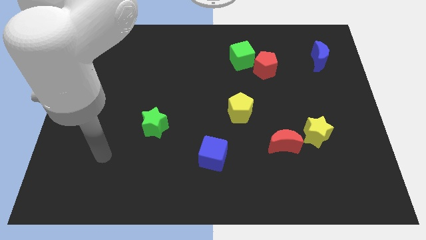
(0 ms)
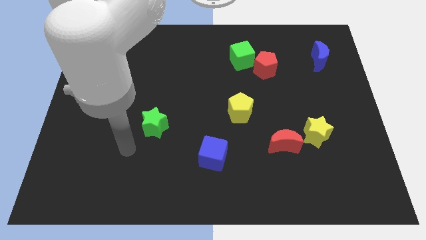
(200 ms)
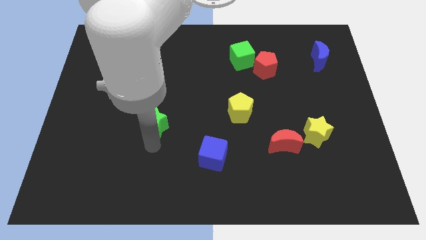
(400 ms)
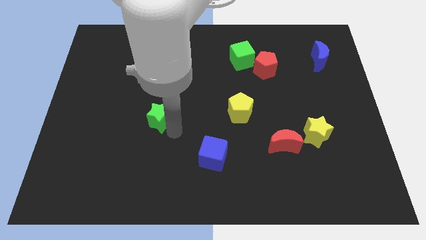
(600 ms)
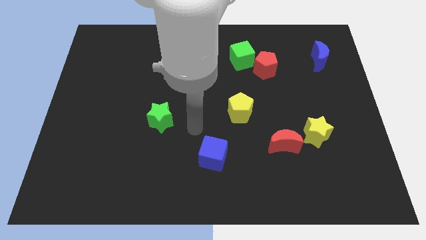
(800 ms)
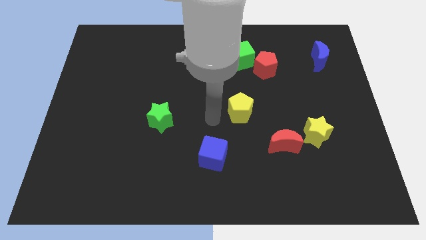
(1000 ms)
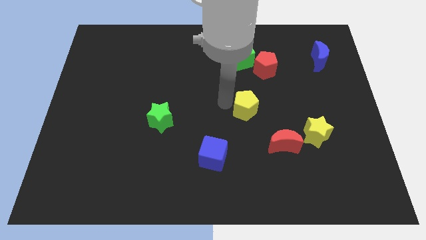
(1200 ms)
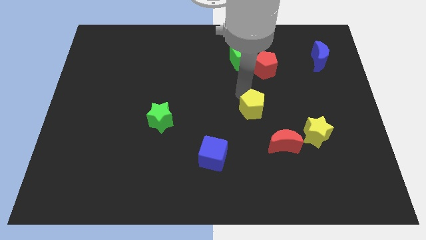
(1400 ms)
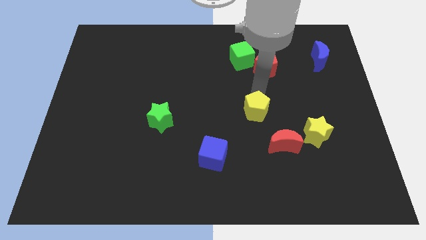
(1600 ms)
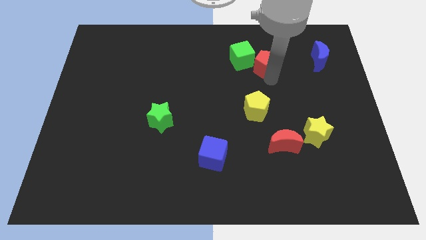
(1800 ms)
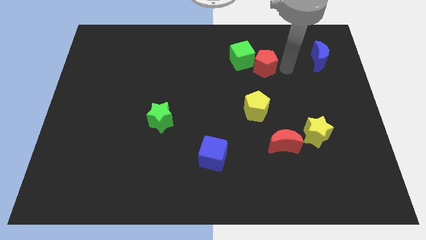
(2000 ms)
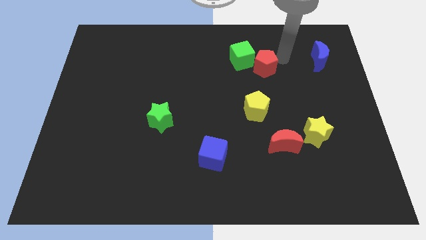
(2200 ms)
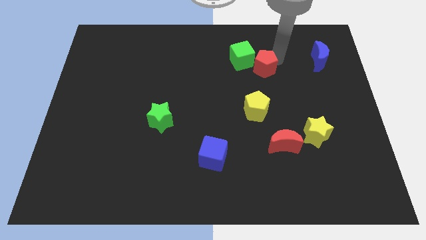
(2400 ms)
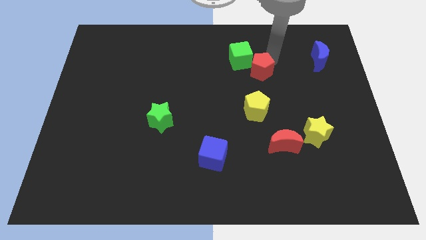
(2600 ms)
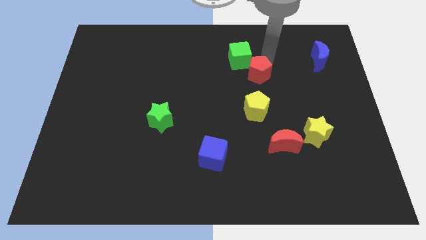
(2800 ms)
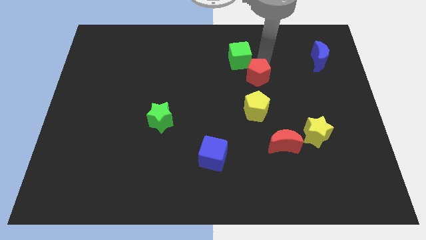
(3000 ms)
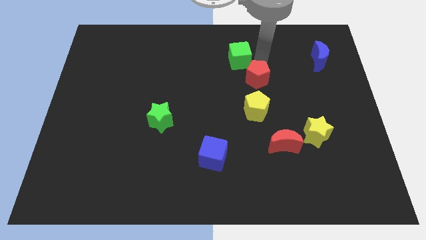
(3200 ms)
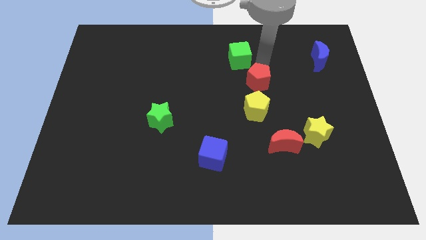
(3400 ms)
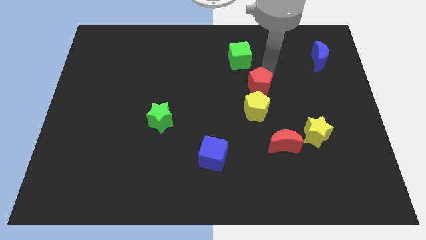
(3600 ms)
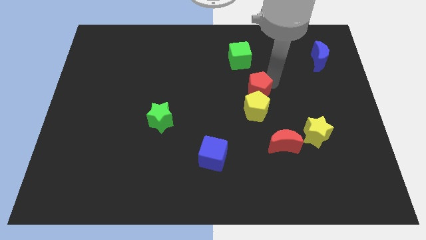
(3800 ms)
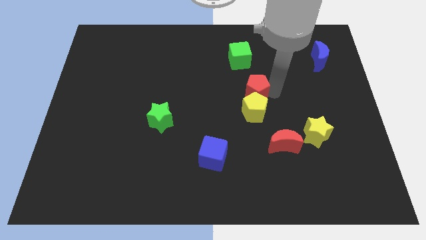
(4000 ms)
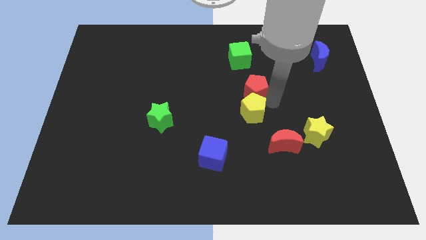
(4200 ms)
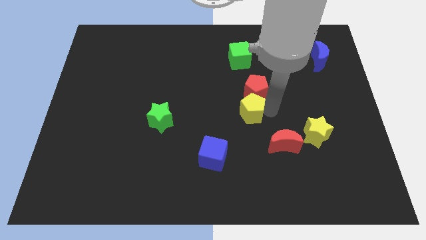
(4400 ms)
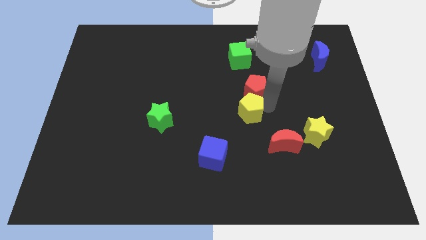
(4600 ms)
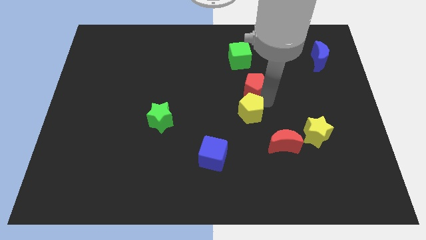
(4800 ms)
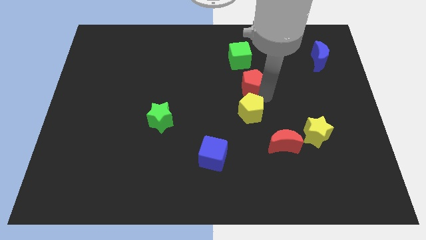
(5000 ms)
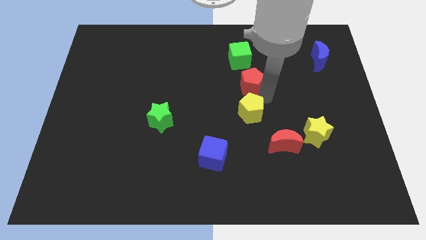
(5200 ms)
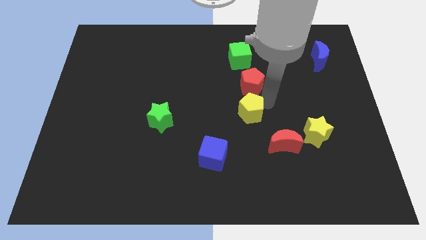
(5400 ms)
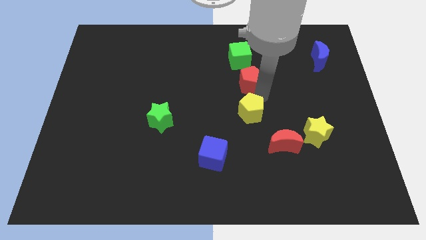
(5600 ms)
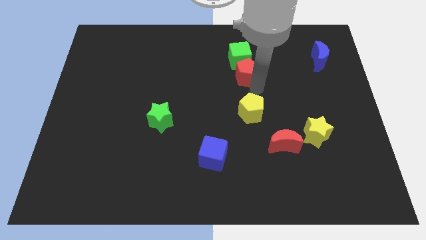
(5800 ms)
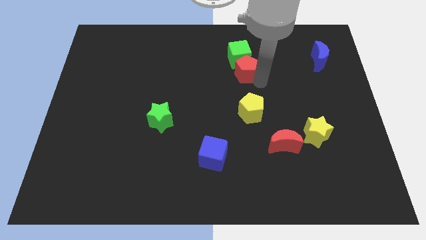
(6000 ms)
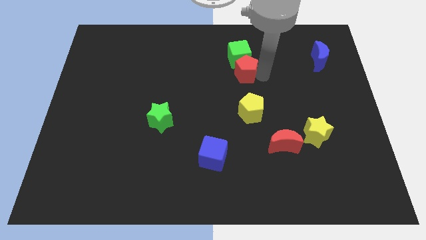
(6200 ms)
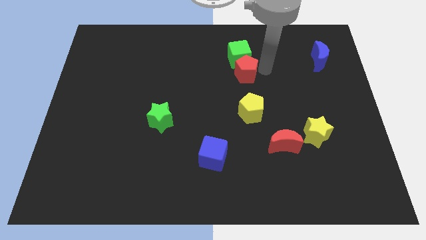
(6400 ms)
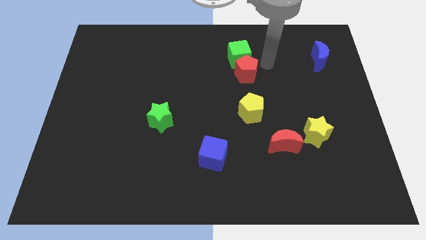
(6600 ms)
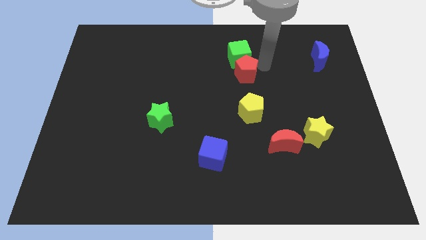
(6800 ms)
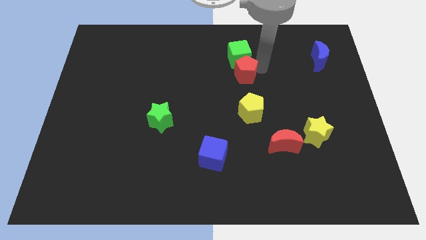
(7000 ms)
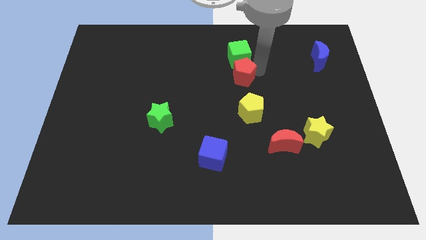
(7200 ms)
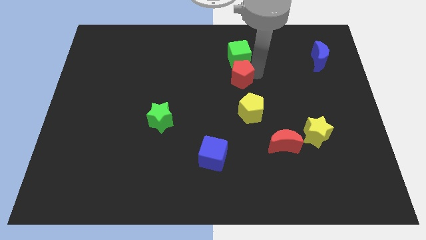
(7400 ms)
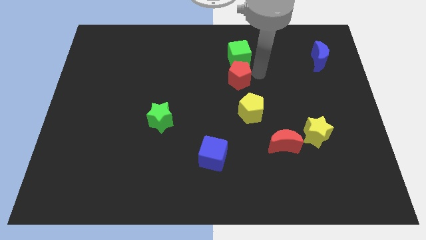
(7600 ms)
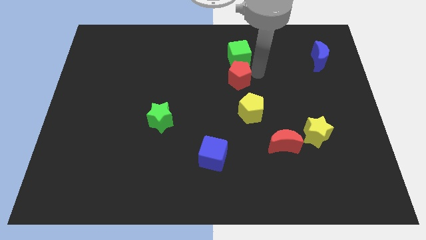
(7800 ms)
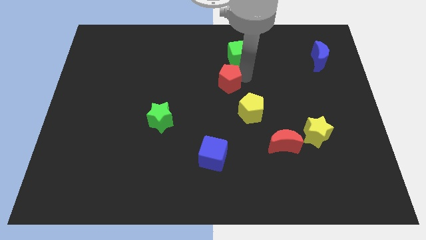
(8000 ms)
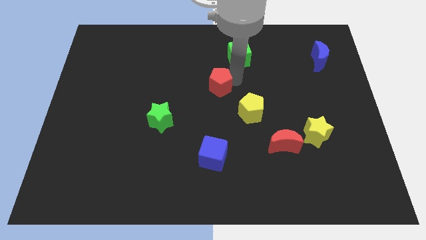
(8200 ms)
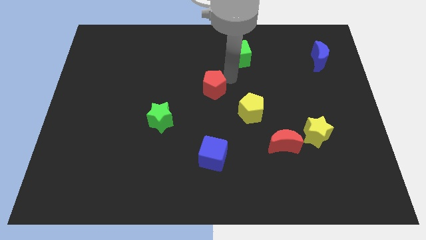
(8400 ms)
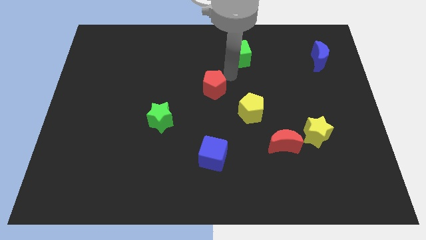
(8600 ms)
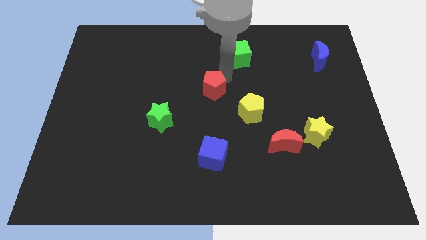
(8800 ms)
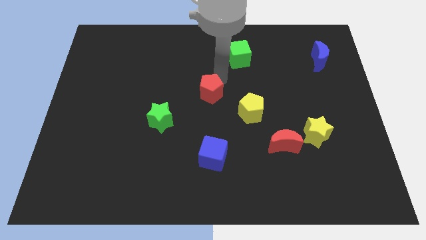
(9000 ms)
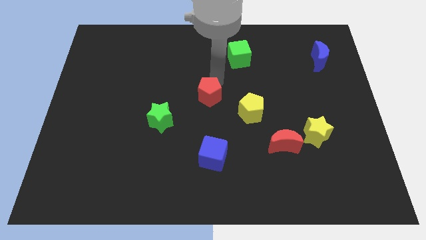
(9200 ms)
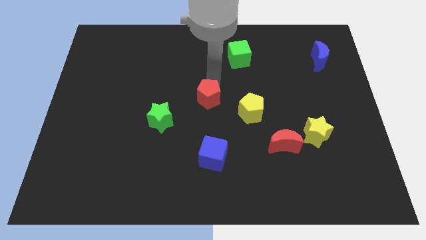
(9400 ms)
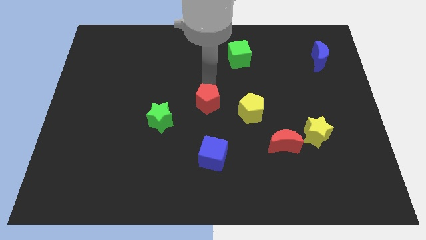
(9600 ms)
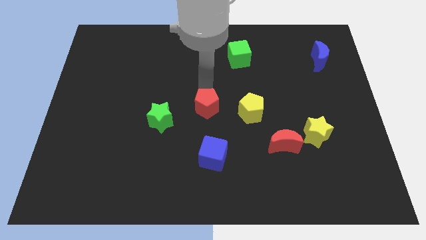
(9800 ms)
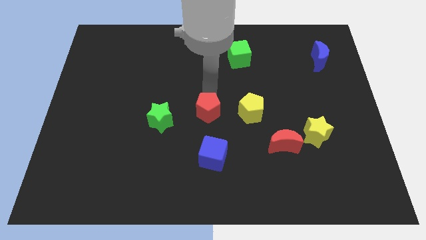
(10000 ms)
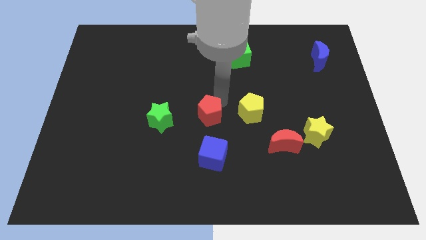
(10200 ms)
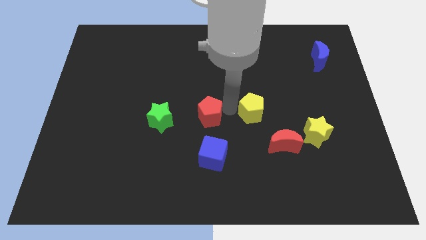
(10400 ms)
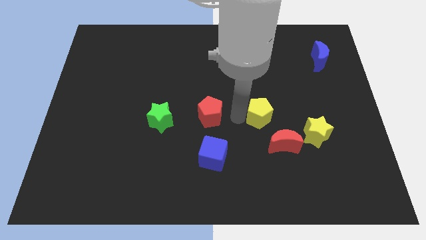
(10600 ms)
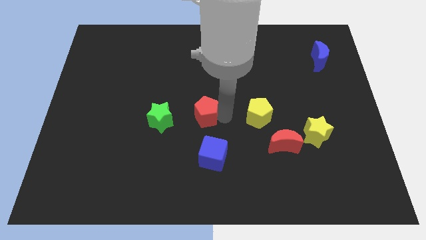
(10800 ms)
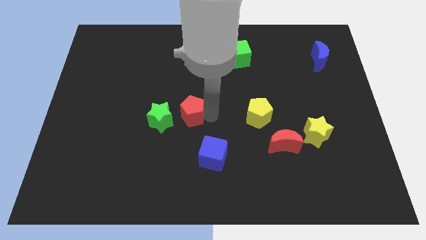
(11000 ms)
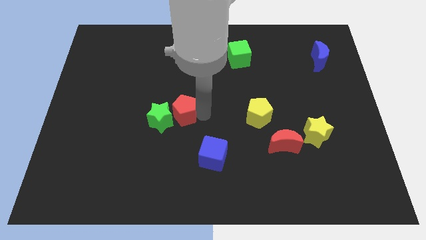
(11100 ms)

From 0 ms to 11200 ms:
slide the red pentagon next to the green star
